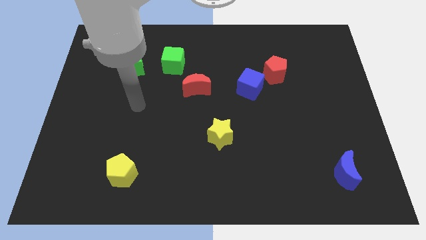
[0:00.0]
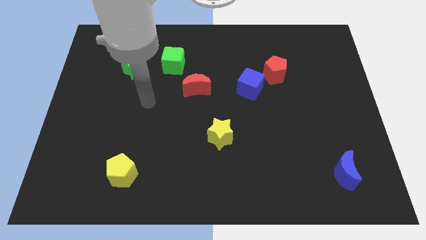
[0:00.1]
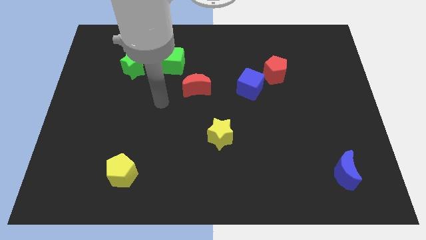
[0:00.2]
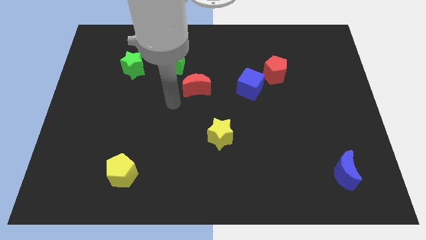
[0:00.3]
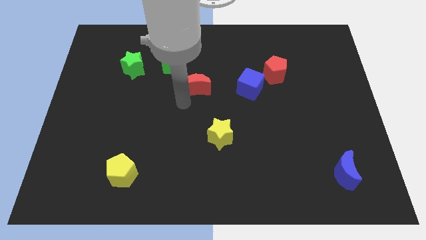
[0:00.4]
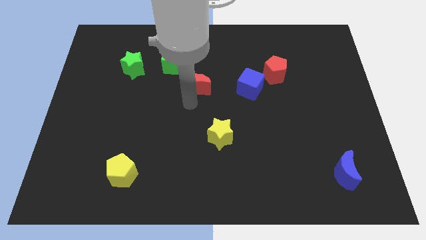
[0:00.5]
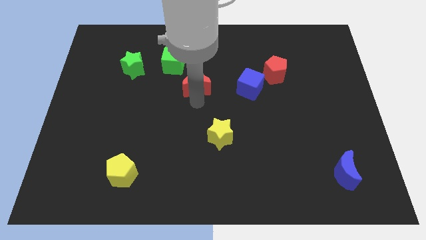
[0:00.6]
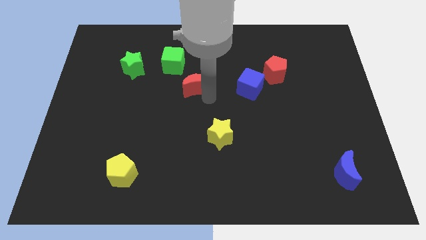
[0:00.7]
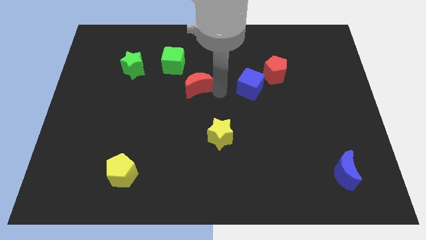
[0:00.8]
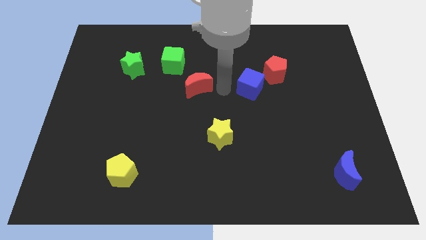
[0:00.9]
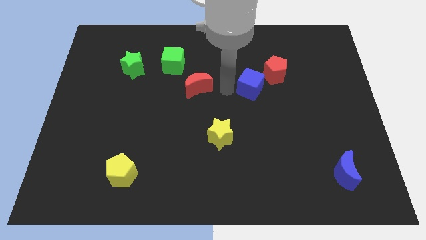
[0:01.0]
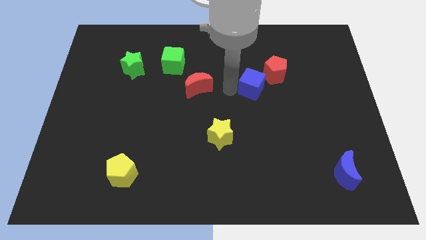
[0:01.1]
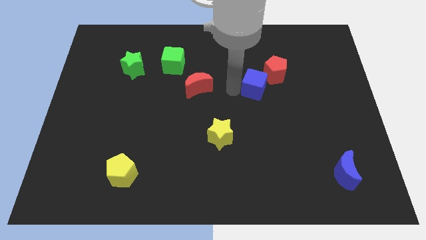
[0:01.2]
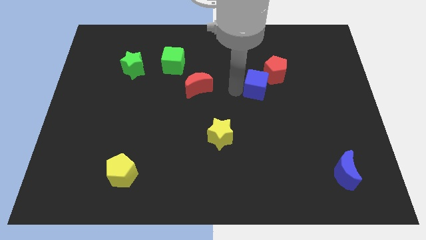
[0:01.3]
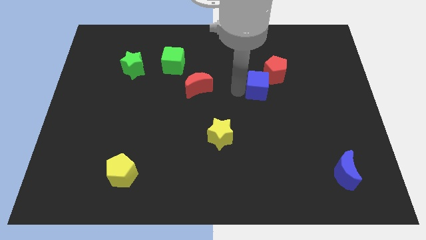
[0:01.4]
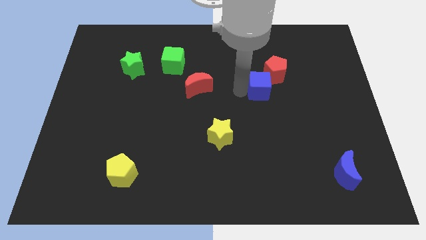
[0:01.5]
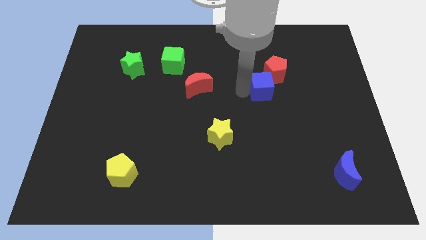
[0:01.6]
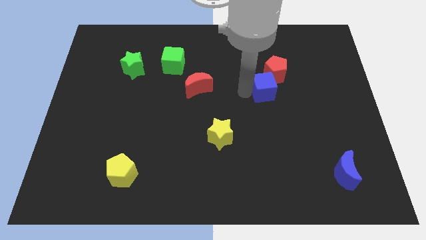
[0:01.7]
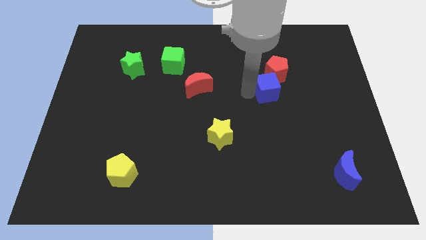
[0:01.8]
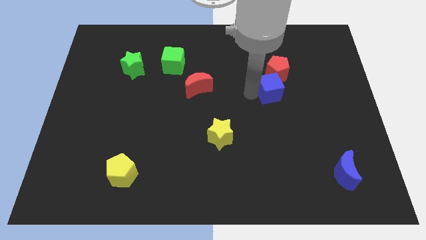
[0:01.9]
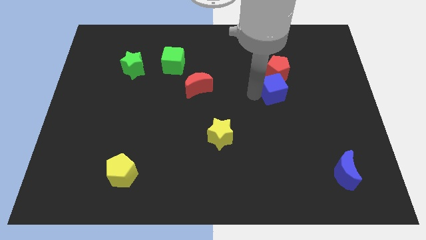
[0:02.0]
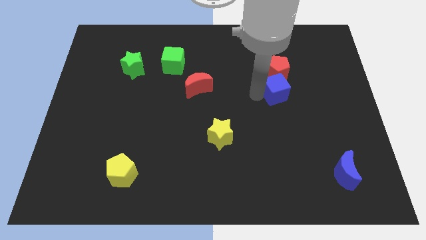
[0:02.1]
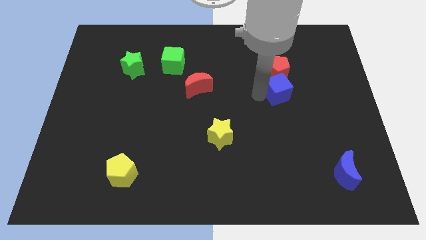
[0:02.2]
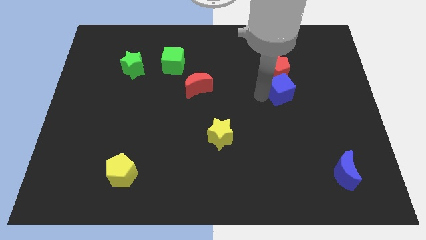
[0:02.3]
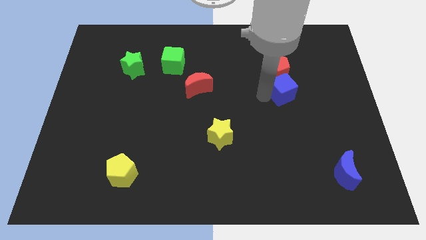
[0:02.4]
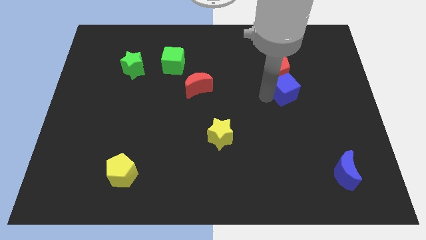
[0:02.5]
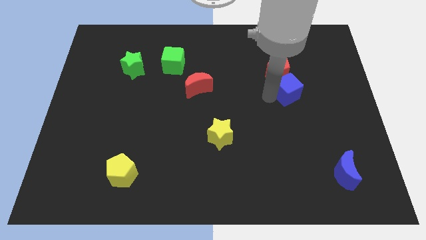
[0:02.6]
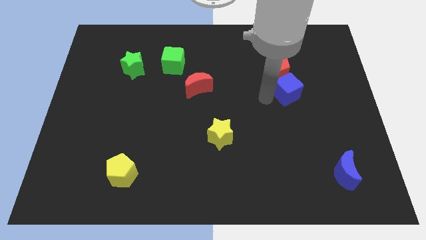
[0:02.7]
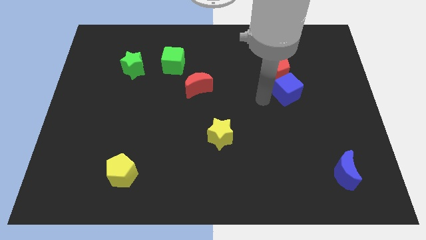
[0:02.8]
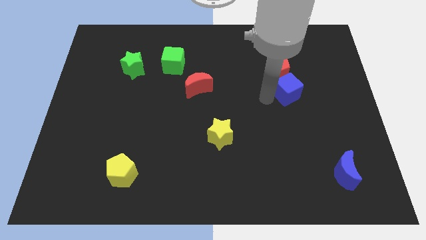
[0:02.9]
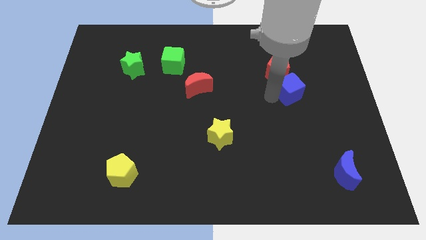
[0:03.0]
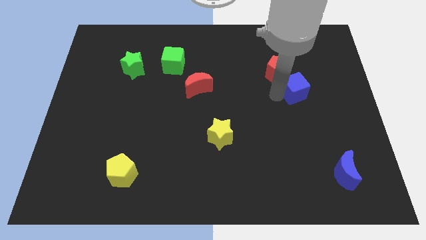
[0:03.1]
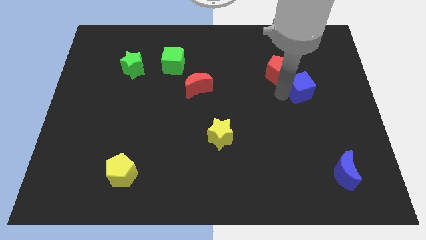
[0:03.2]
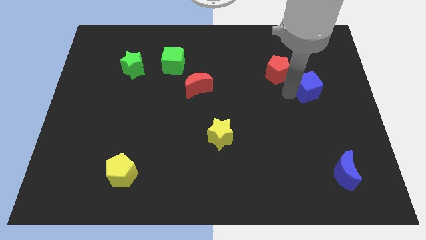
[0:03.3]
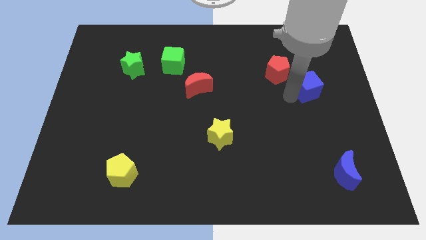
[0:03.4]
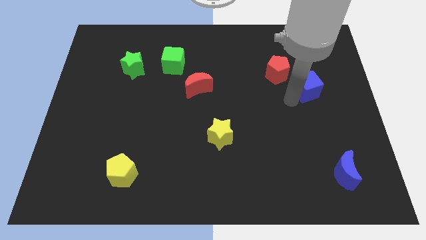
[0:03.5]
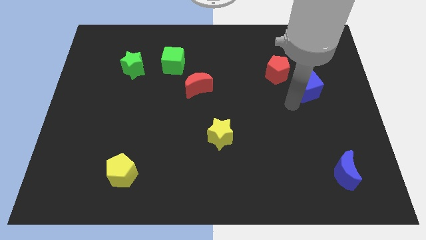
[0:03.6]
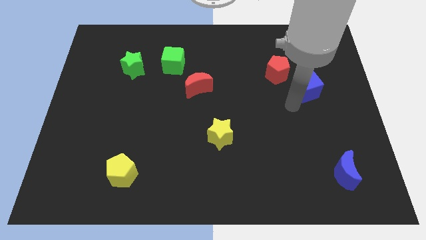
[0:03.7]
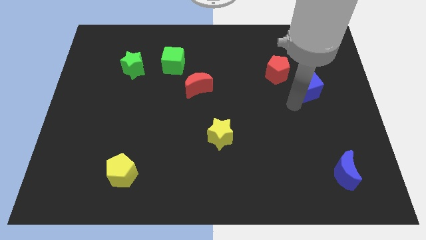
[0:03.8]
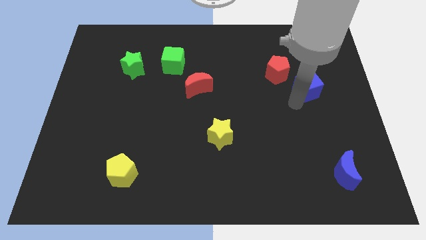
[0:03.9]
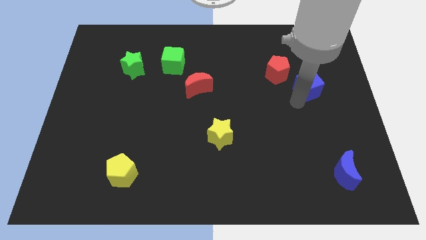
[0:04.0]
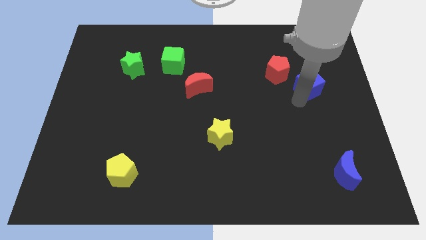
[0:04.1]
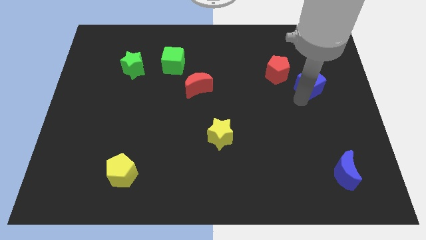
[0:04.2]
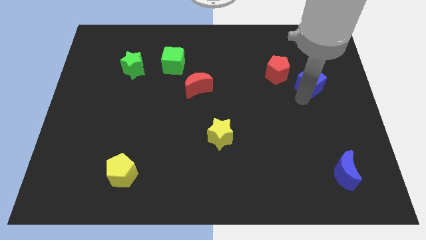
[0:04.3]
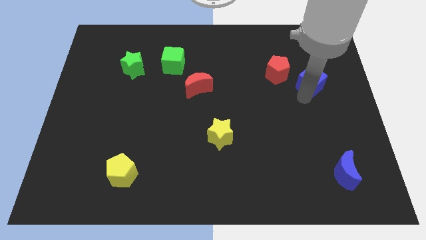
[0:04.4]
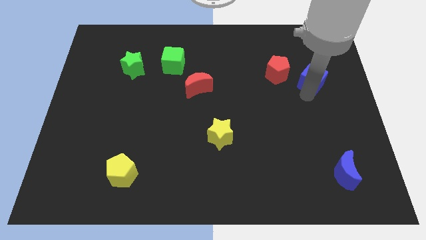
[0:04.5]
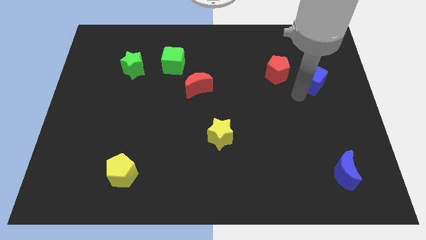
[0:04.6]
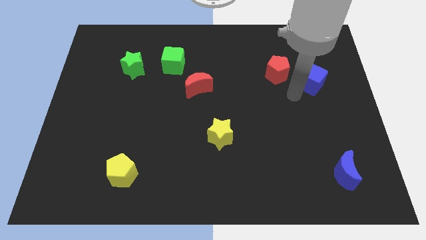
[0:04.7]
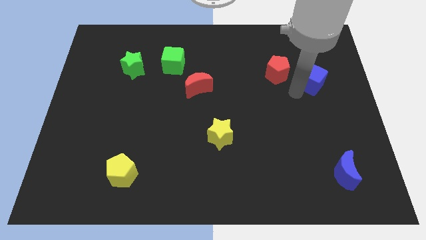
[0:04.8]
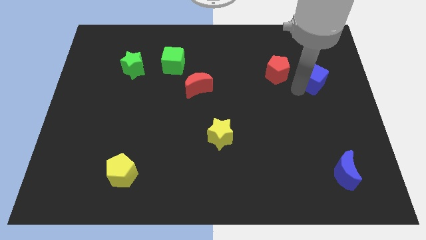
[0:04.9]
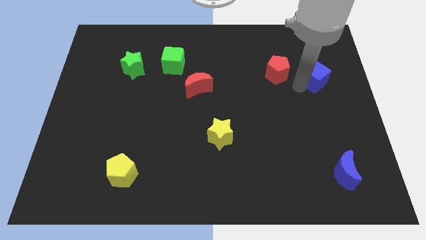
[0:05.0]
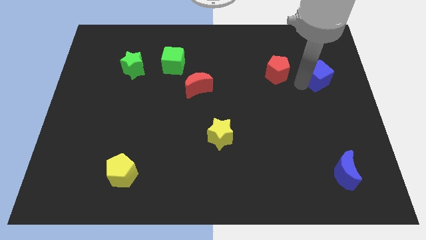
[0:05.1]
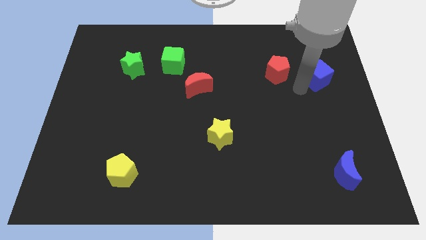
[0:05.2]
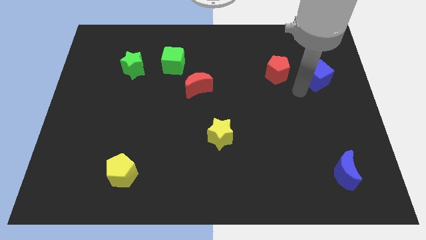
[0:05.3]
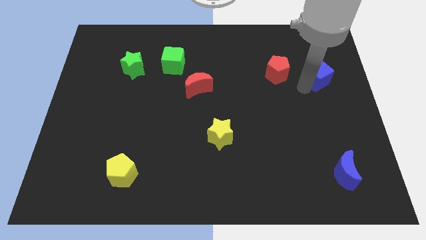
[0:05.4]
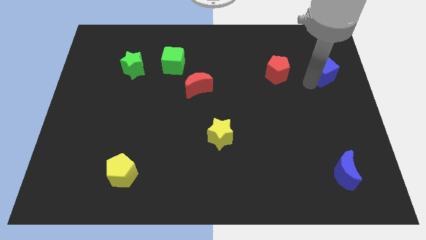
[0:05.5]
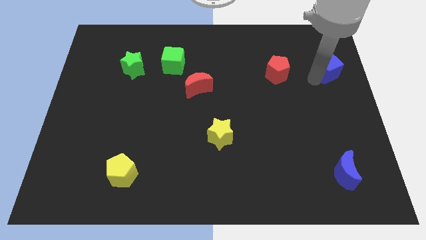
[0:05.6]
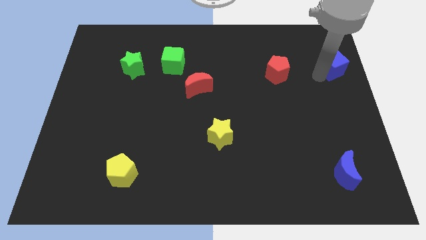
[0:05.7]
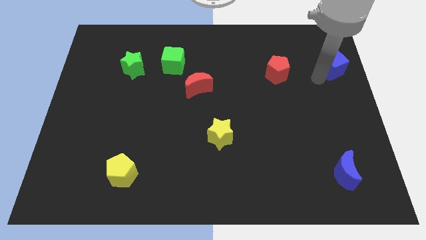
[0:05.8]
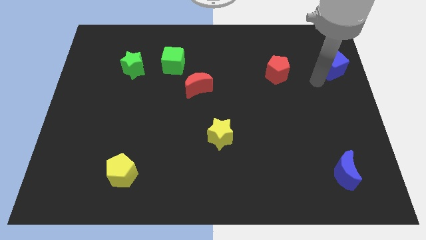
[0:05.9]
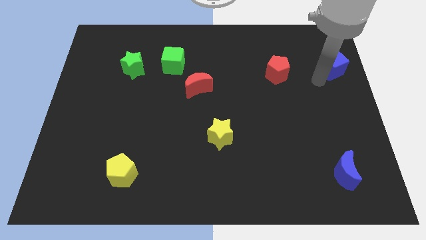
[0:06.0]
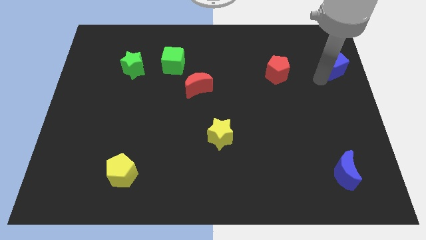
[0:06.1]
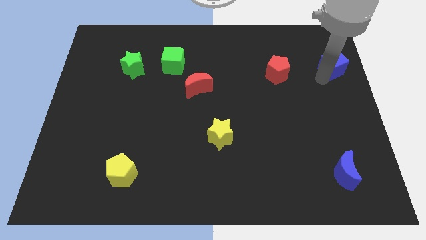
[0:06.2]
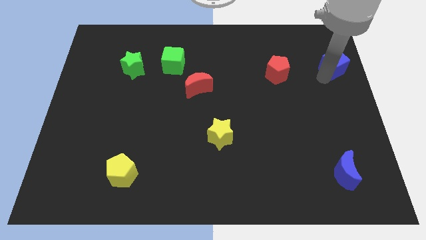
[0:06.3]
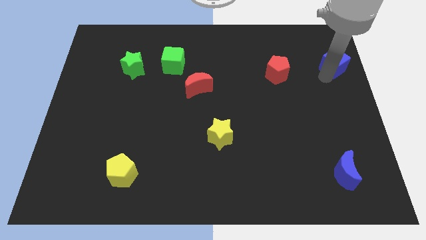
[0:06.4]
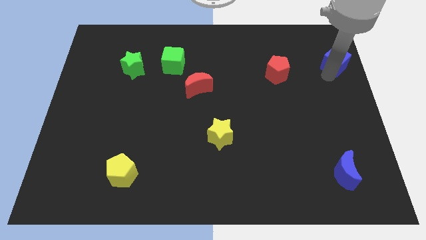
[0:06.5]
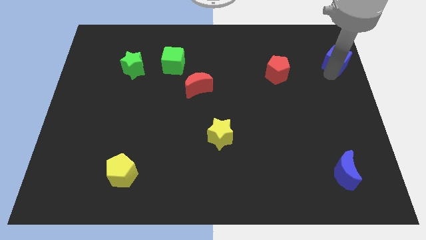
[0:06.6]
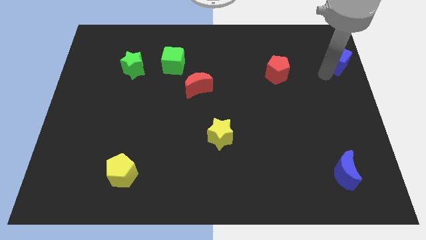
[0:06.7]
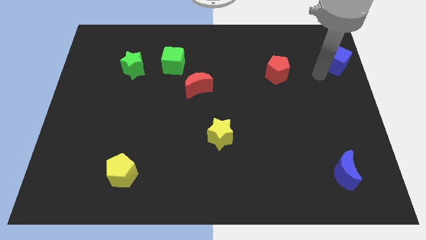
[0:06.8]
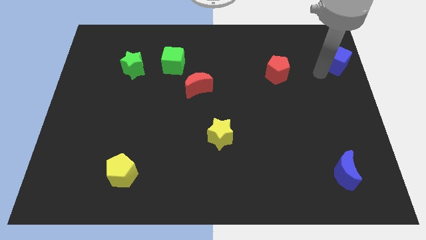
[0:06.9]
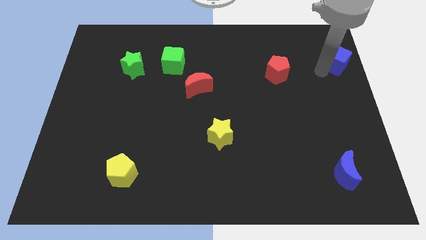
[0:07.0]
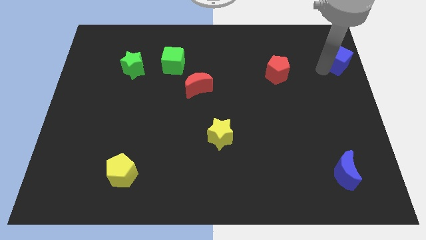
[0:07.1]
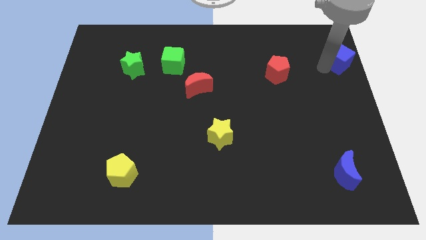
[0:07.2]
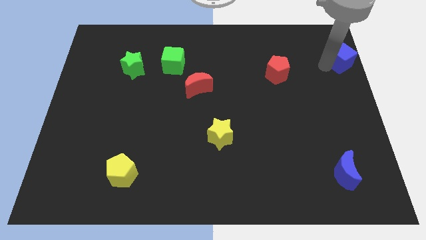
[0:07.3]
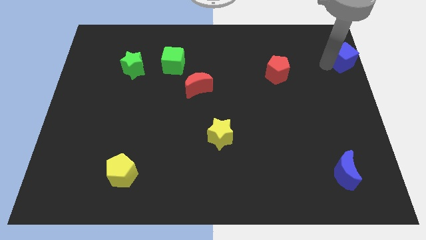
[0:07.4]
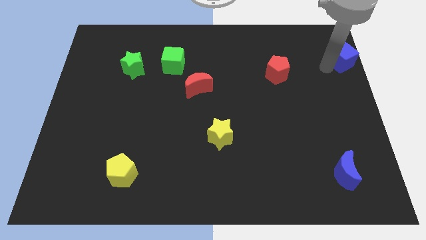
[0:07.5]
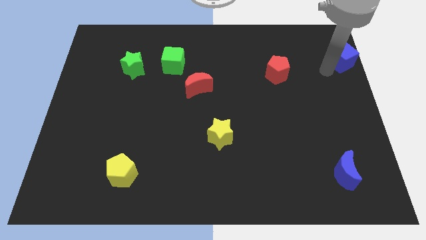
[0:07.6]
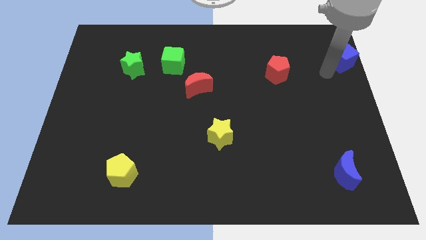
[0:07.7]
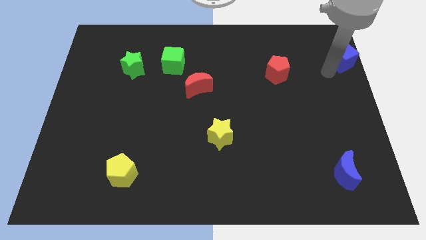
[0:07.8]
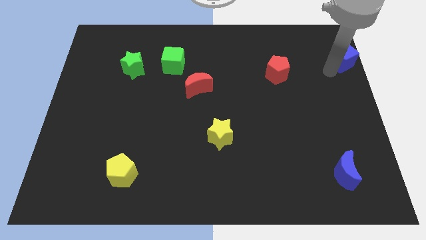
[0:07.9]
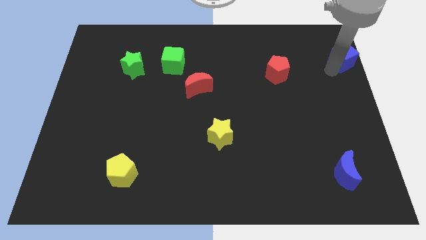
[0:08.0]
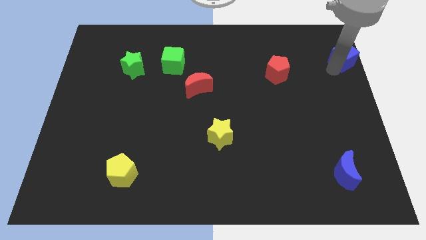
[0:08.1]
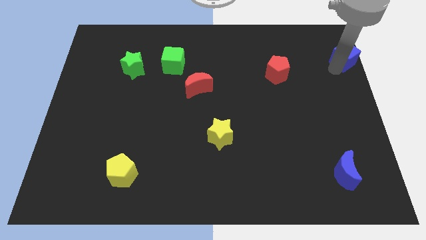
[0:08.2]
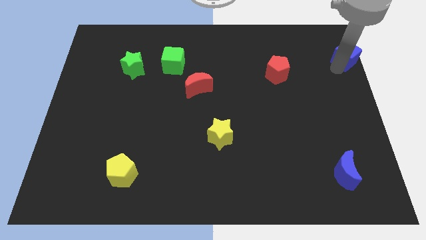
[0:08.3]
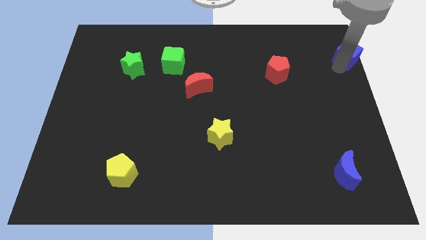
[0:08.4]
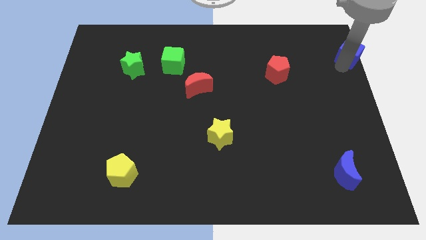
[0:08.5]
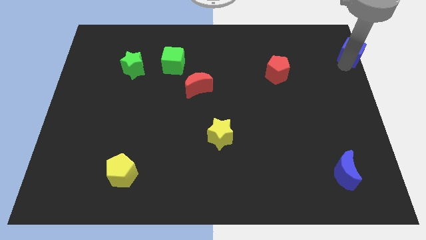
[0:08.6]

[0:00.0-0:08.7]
put the blue cube to the top right of the board
